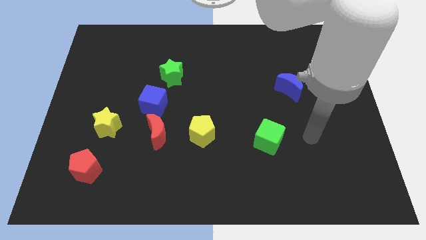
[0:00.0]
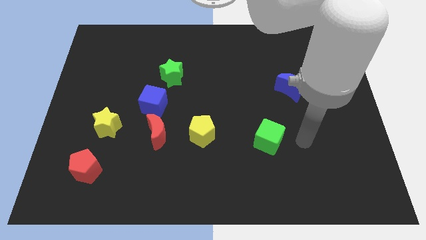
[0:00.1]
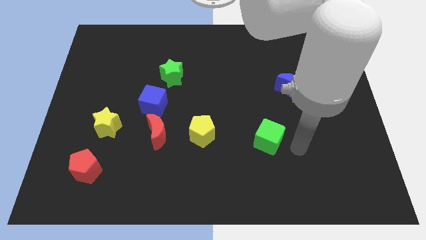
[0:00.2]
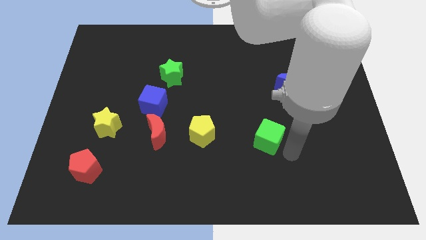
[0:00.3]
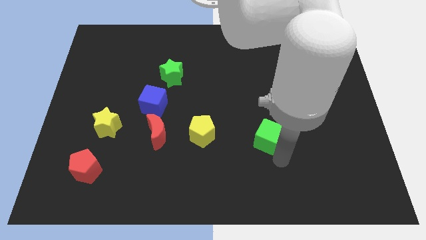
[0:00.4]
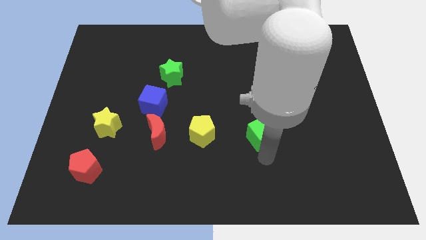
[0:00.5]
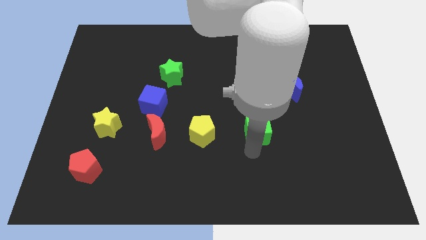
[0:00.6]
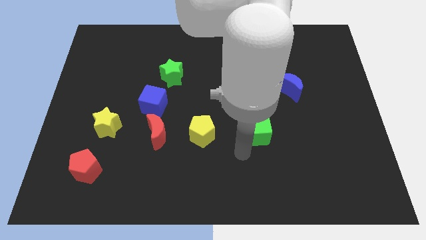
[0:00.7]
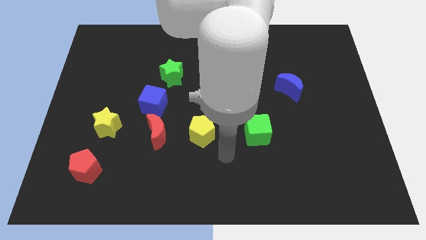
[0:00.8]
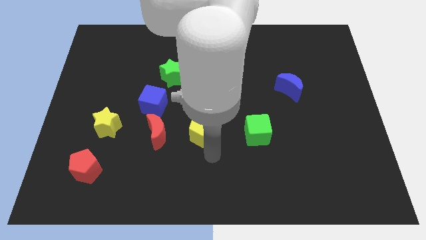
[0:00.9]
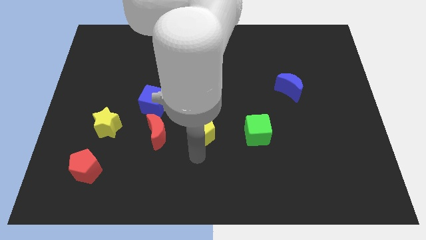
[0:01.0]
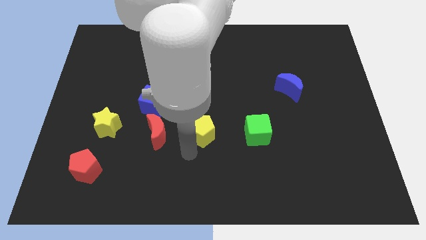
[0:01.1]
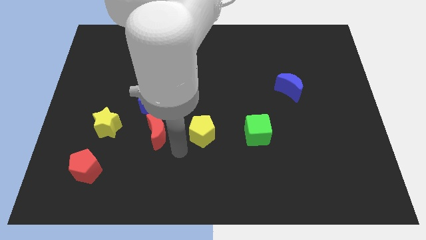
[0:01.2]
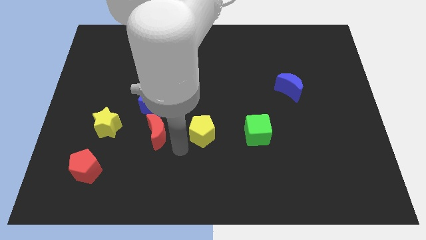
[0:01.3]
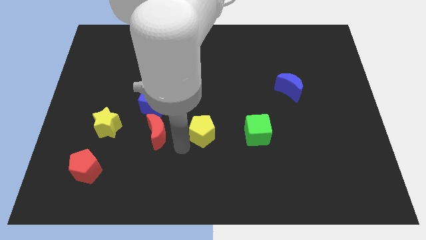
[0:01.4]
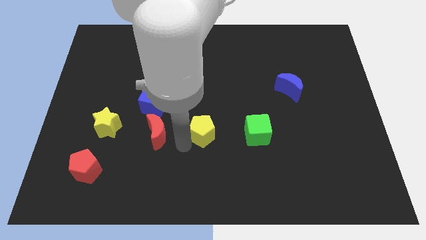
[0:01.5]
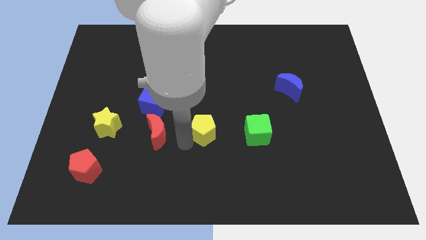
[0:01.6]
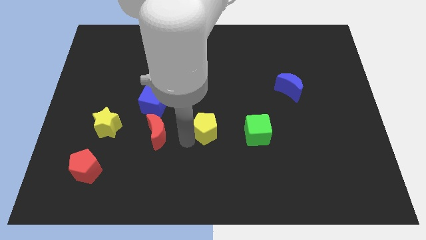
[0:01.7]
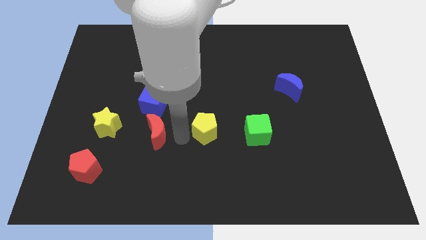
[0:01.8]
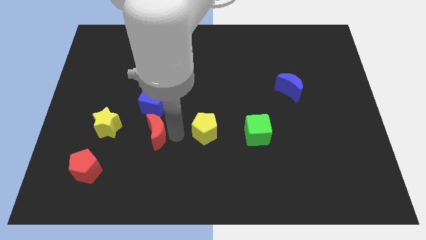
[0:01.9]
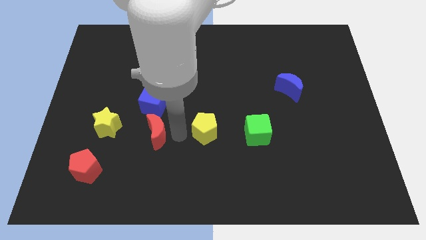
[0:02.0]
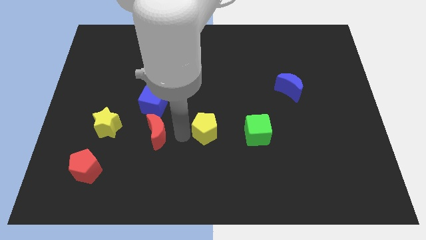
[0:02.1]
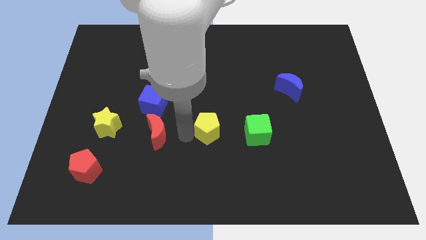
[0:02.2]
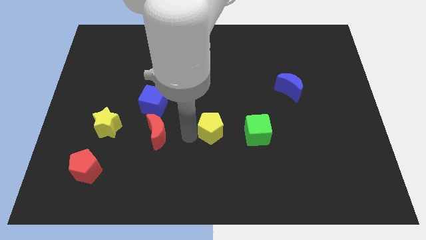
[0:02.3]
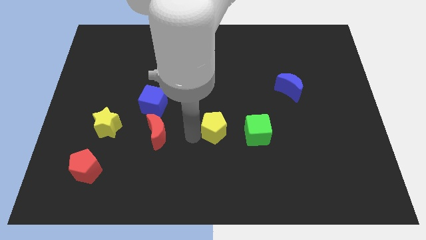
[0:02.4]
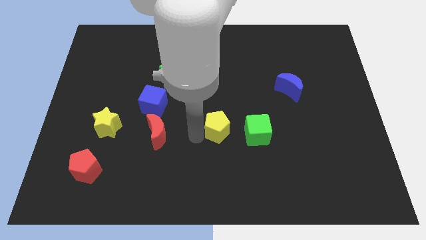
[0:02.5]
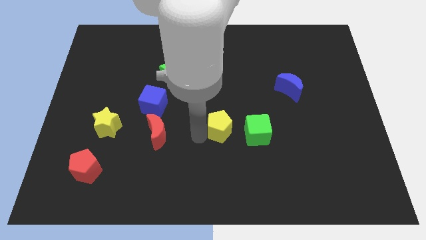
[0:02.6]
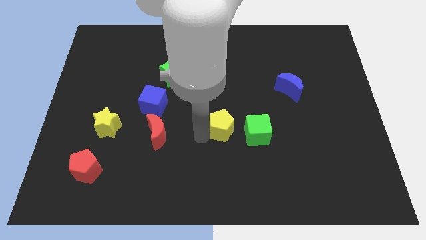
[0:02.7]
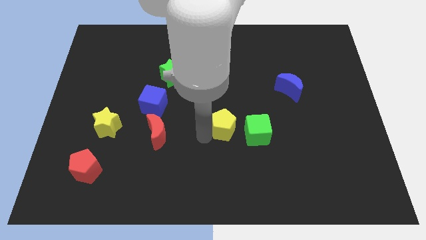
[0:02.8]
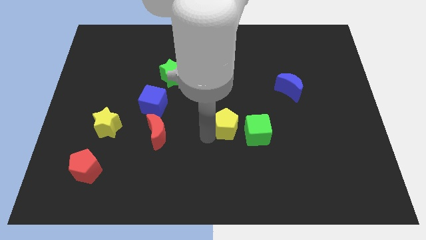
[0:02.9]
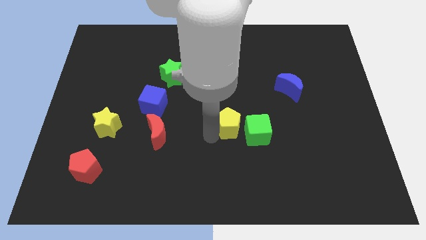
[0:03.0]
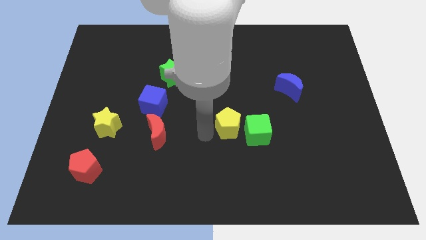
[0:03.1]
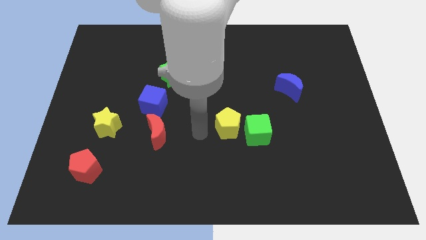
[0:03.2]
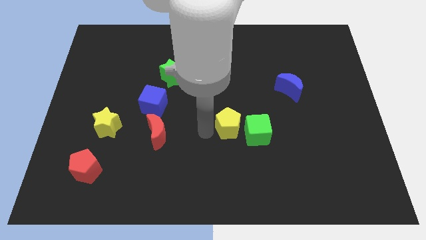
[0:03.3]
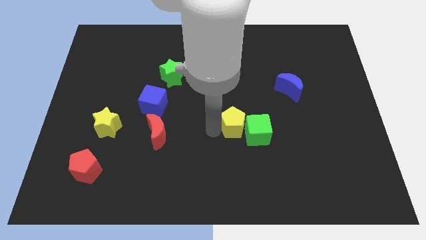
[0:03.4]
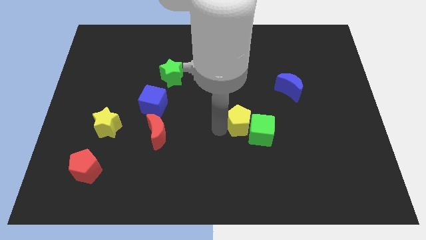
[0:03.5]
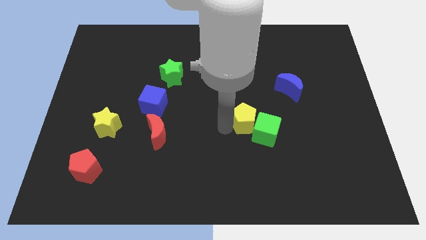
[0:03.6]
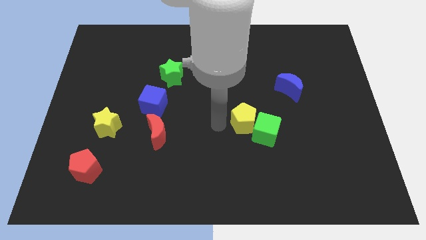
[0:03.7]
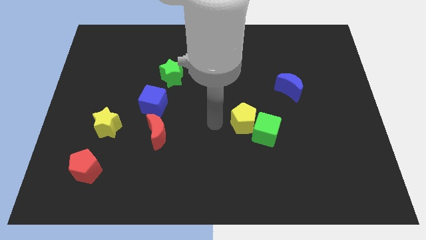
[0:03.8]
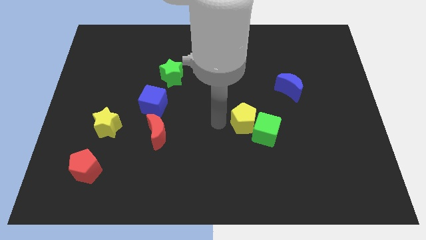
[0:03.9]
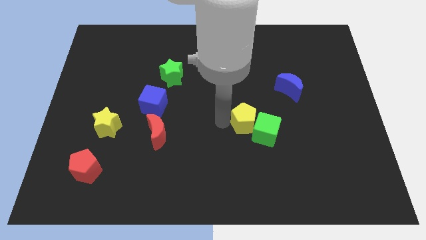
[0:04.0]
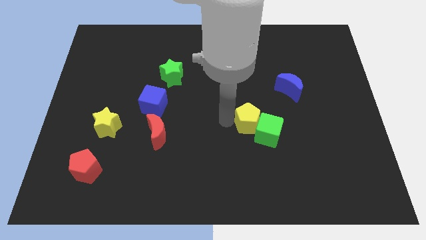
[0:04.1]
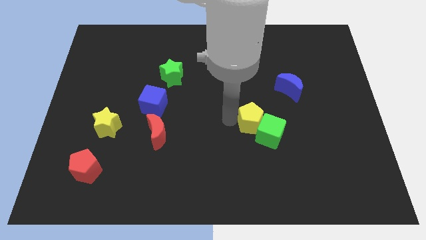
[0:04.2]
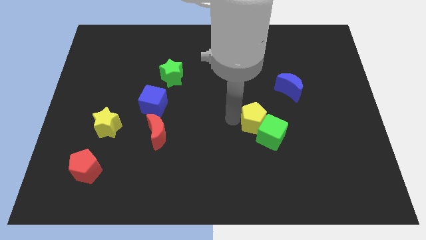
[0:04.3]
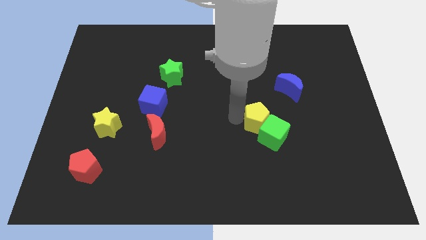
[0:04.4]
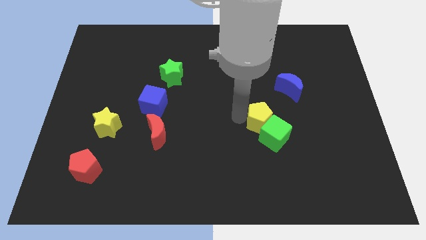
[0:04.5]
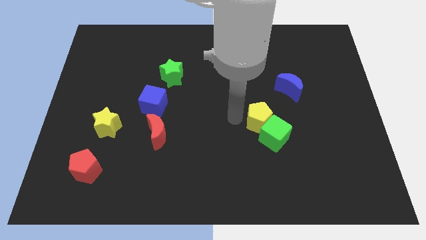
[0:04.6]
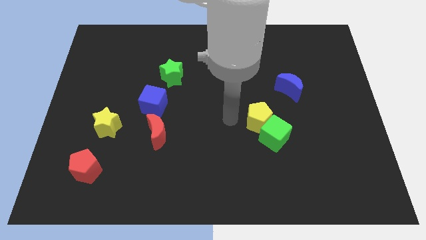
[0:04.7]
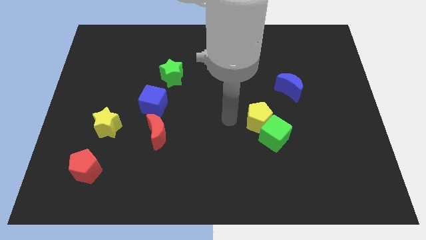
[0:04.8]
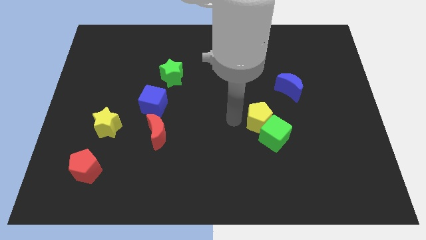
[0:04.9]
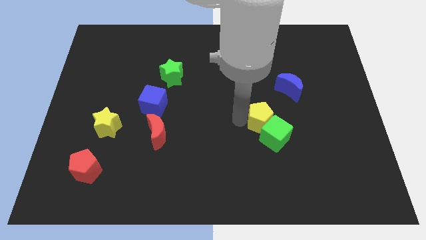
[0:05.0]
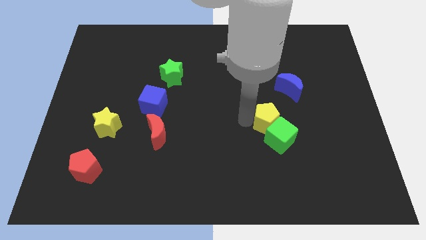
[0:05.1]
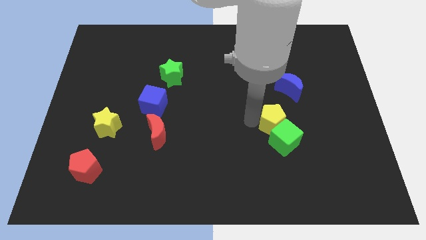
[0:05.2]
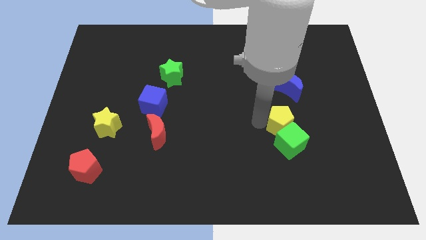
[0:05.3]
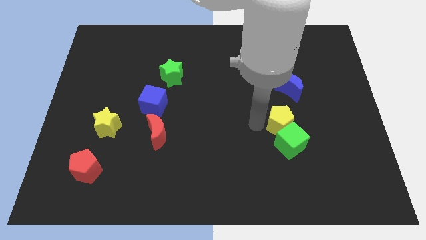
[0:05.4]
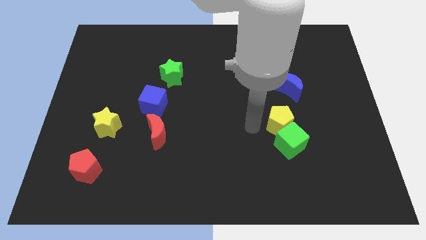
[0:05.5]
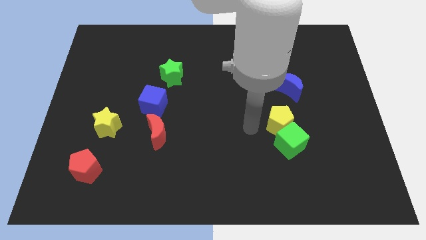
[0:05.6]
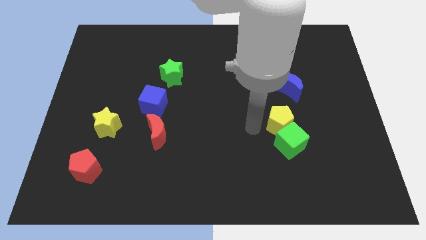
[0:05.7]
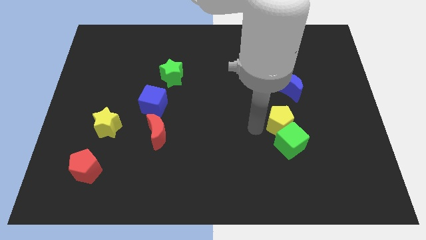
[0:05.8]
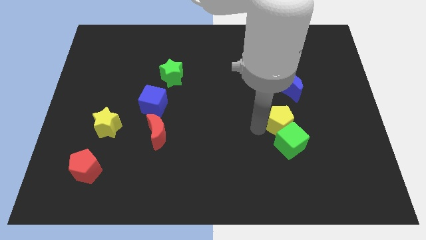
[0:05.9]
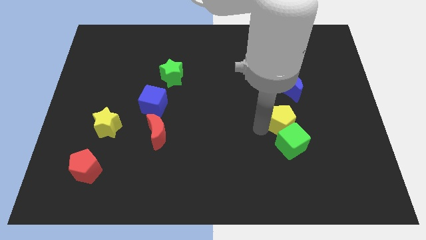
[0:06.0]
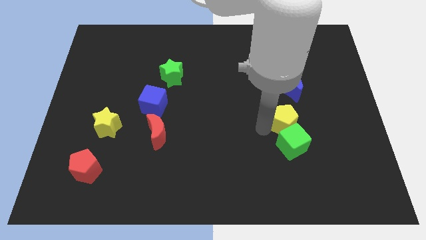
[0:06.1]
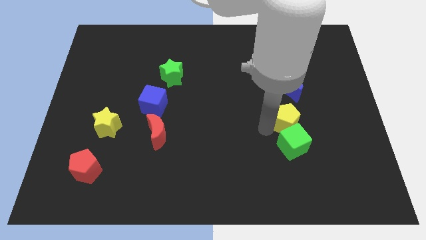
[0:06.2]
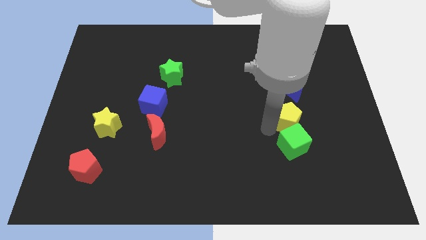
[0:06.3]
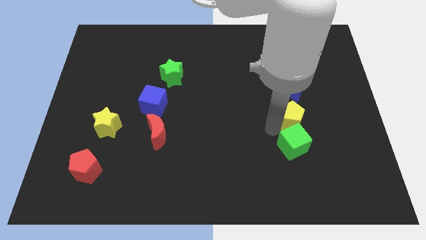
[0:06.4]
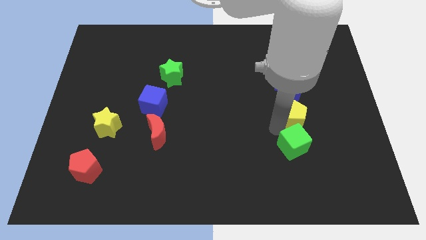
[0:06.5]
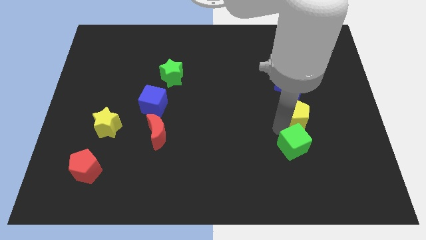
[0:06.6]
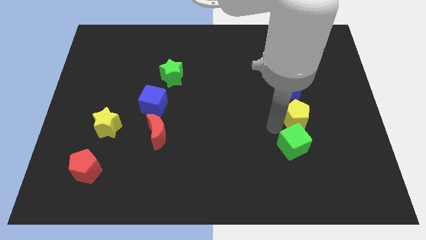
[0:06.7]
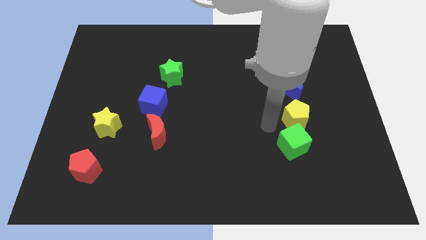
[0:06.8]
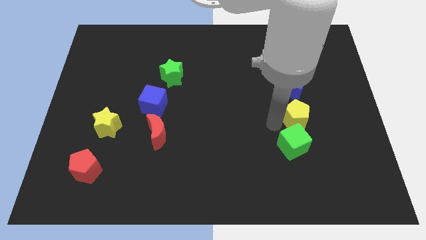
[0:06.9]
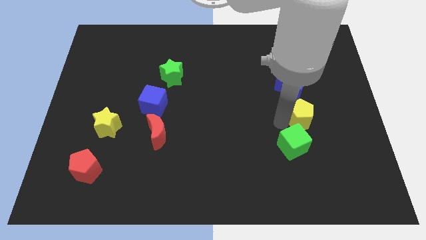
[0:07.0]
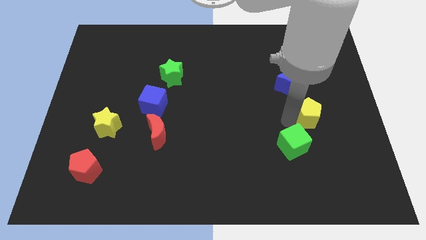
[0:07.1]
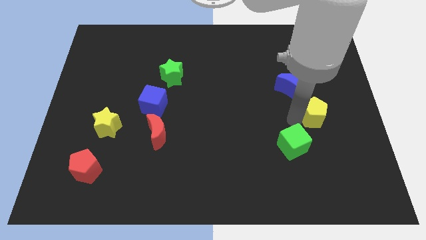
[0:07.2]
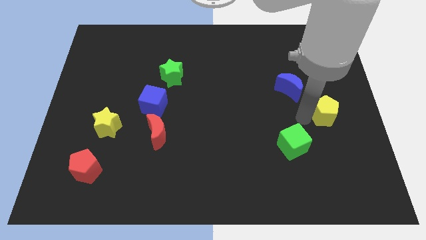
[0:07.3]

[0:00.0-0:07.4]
push the yellow pentagon to the right side of the board

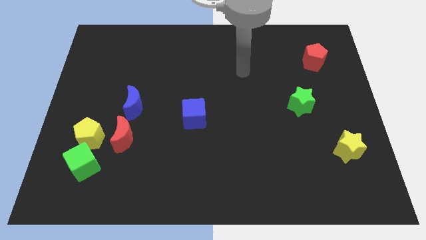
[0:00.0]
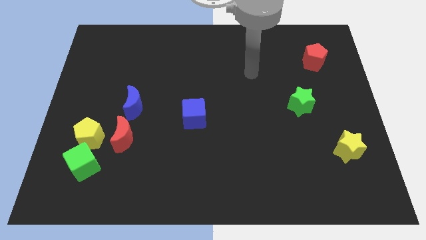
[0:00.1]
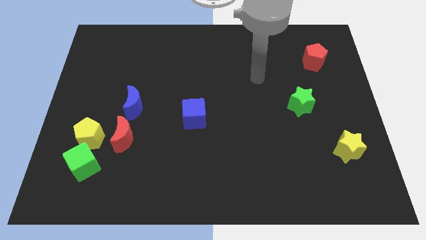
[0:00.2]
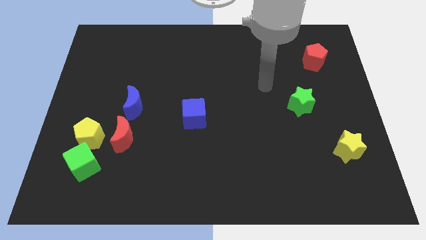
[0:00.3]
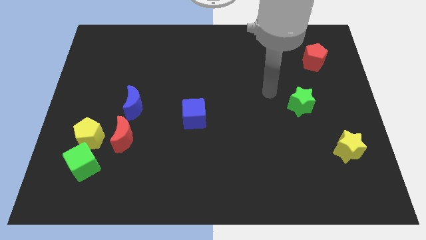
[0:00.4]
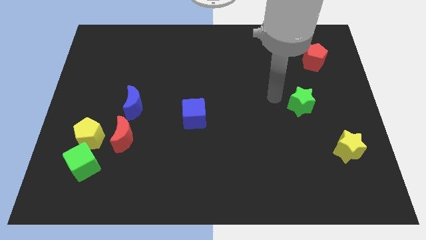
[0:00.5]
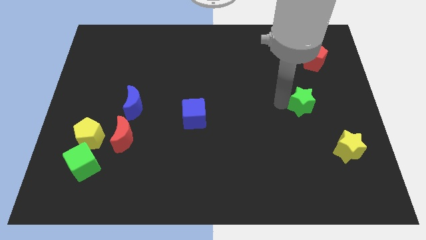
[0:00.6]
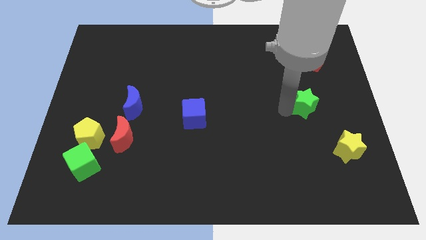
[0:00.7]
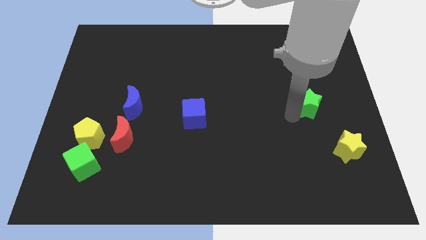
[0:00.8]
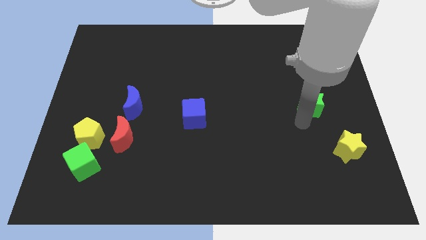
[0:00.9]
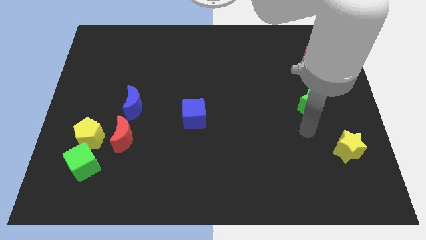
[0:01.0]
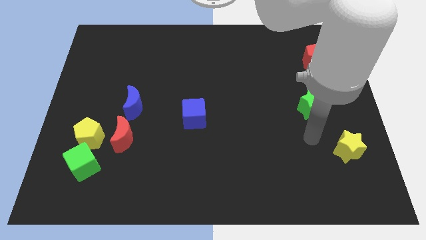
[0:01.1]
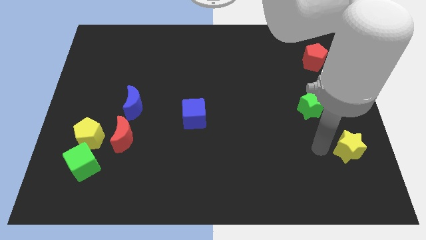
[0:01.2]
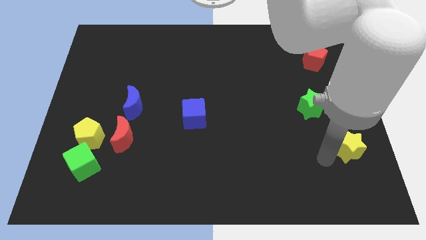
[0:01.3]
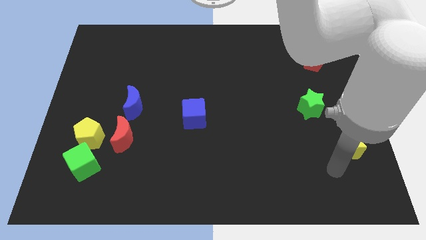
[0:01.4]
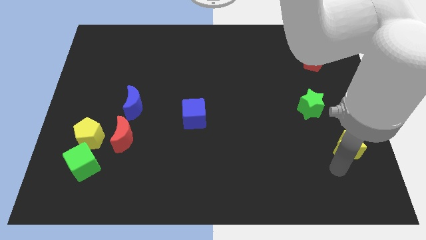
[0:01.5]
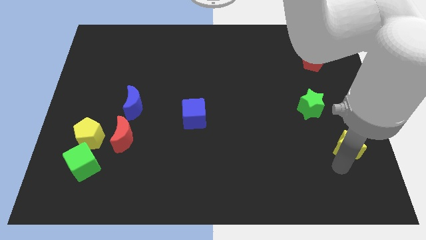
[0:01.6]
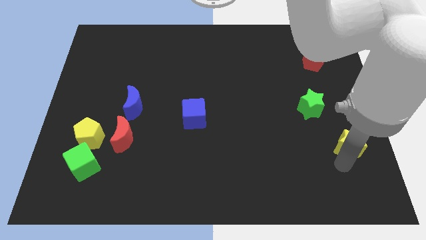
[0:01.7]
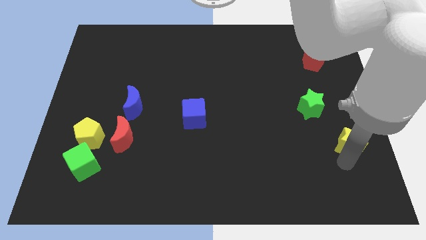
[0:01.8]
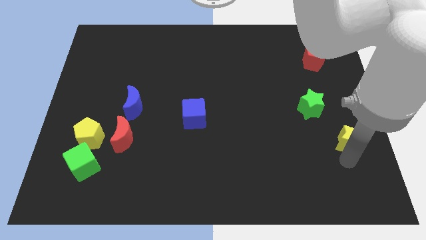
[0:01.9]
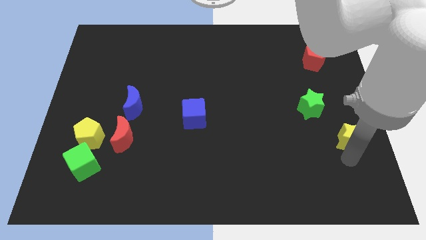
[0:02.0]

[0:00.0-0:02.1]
put the yellow star to the center right
